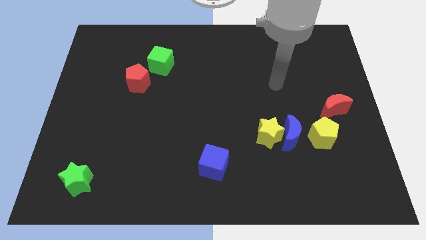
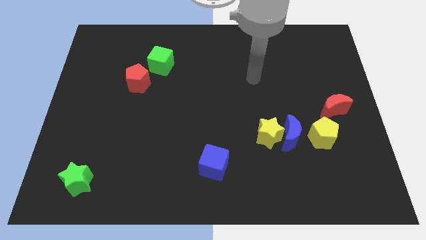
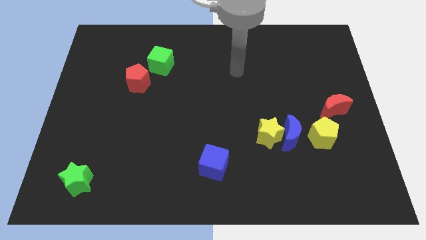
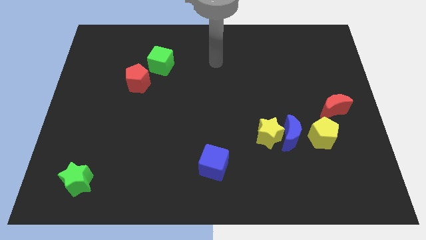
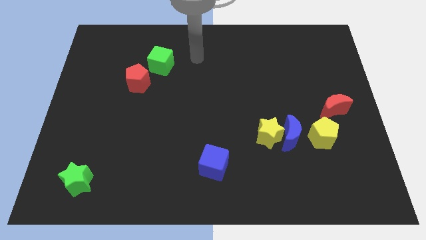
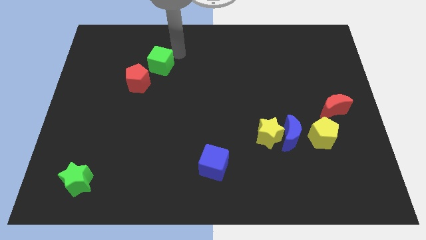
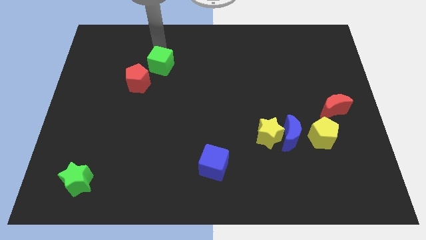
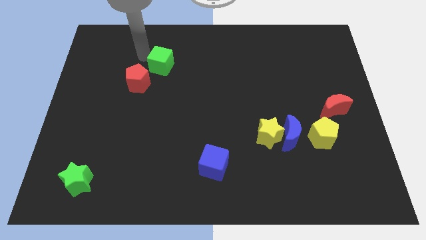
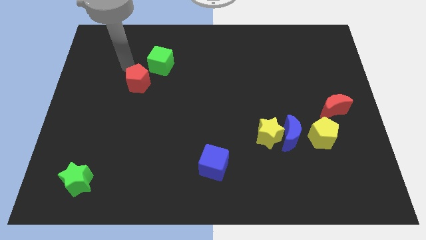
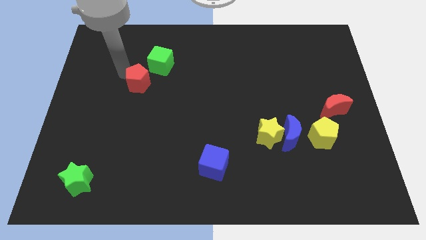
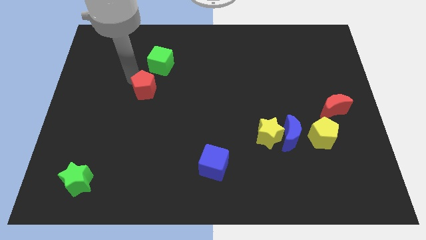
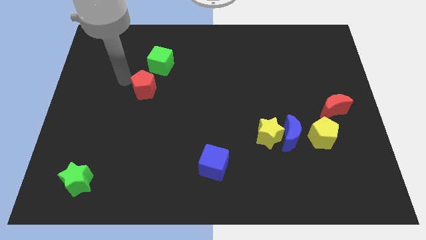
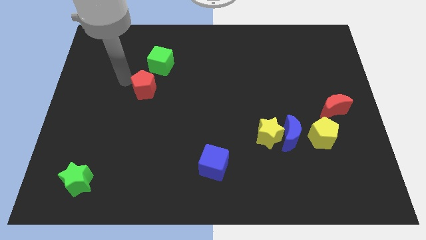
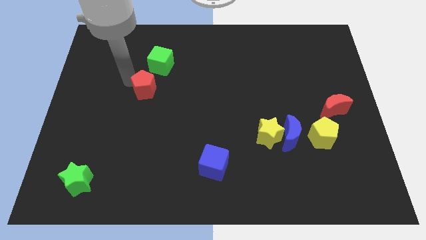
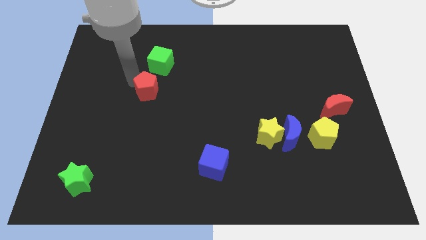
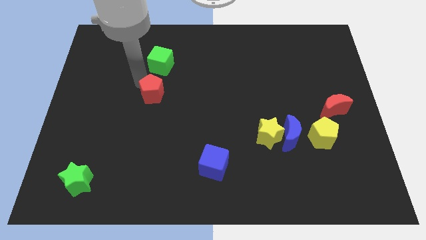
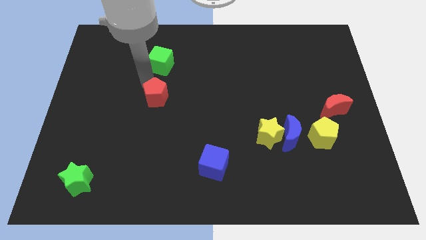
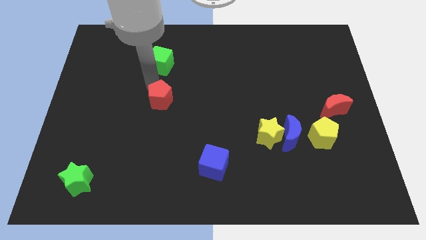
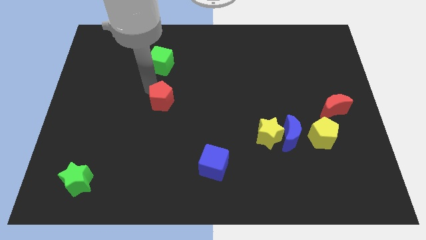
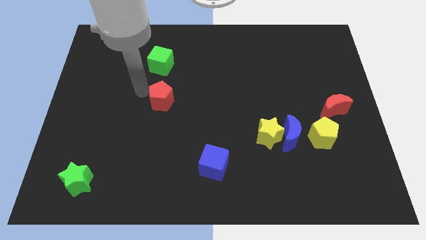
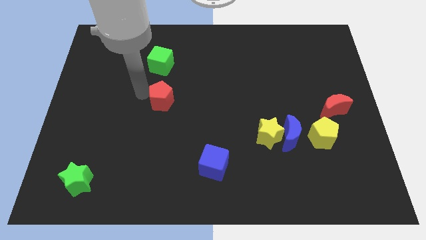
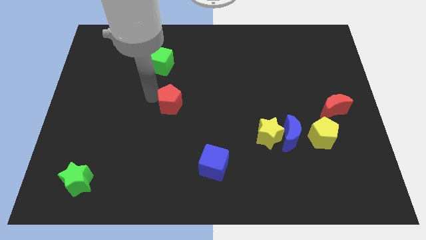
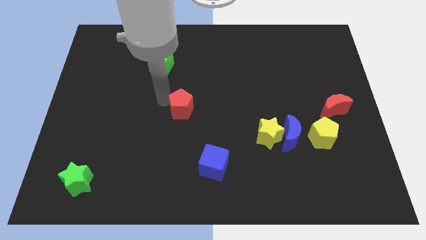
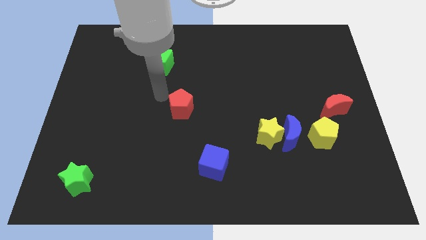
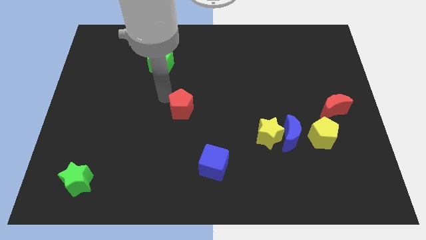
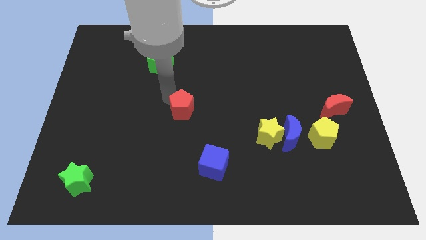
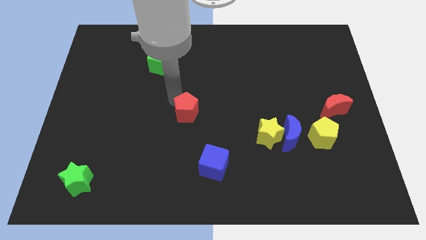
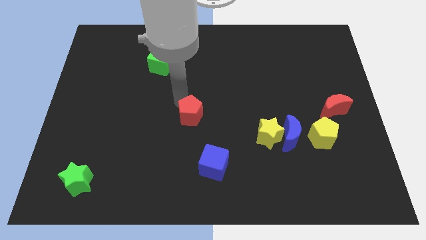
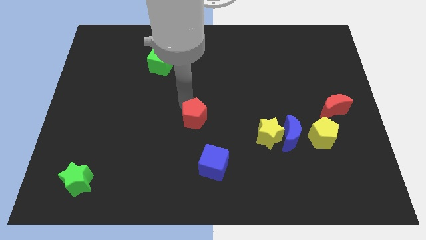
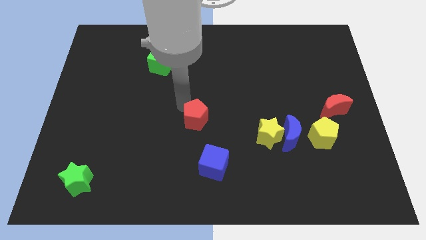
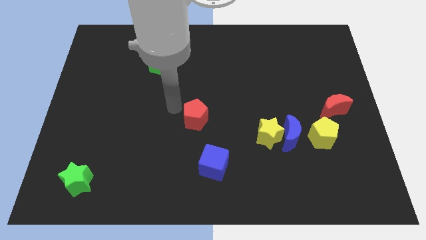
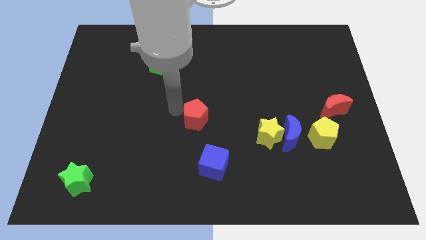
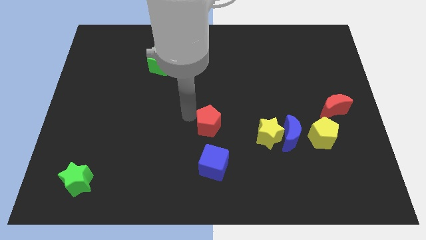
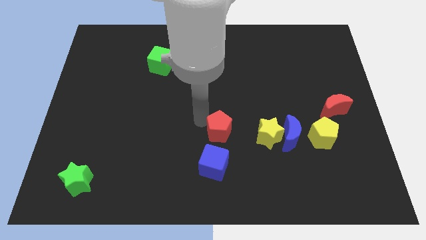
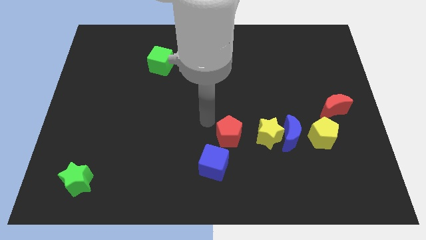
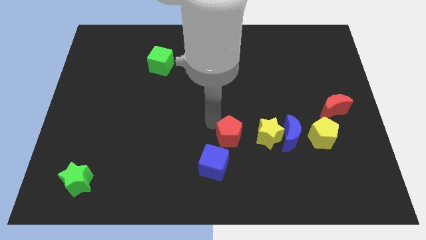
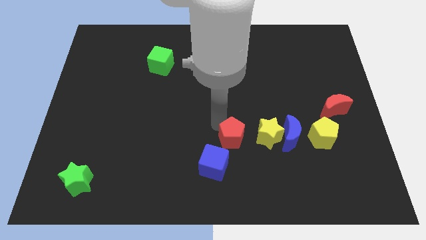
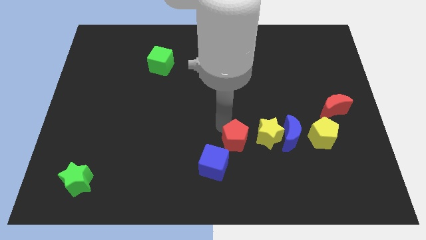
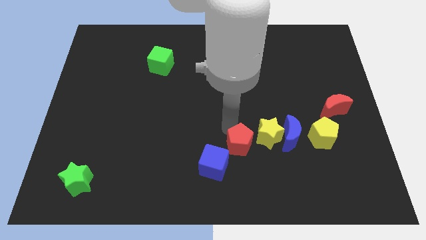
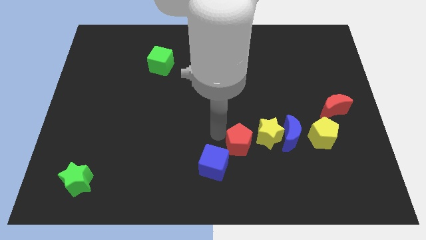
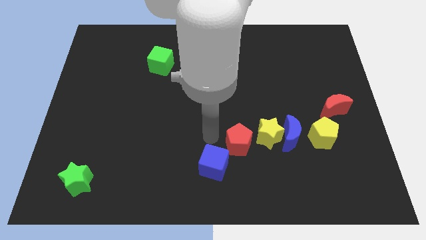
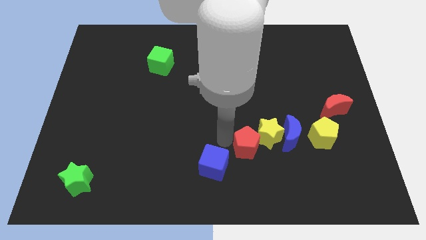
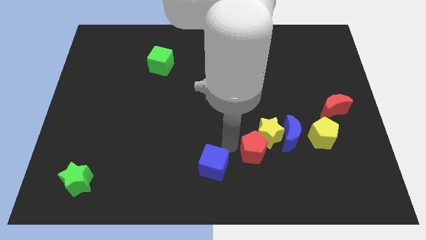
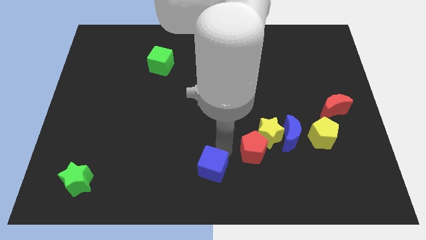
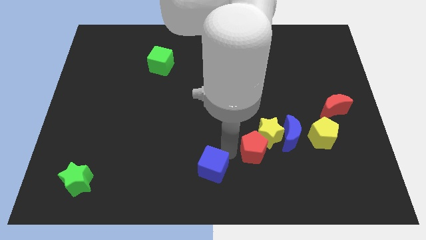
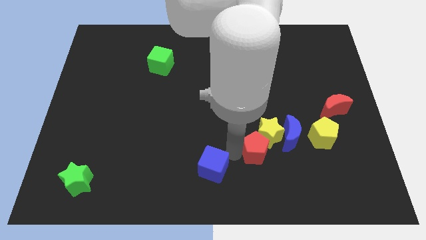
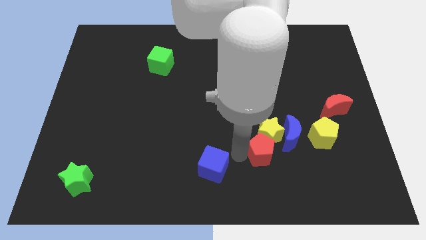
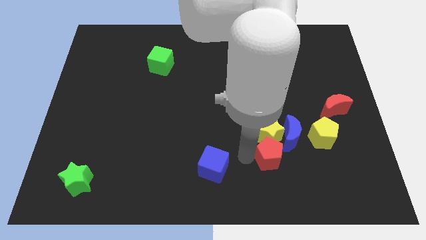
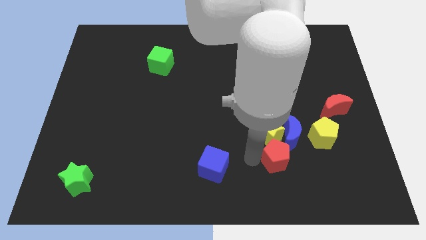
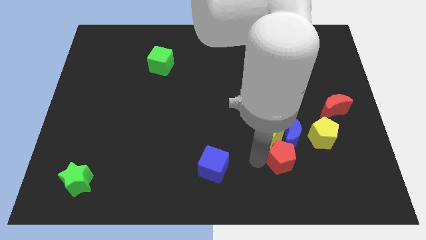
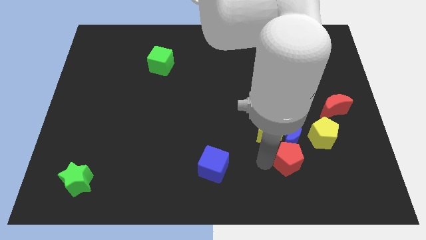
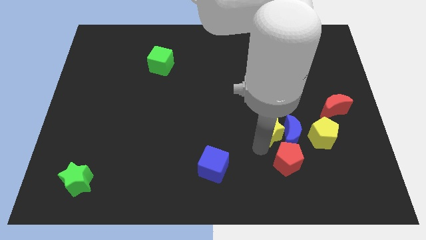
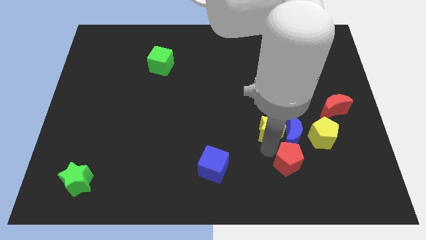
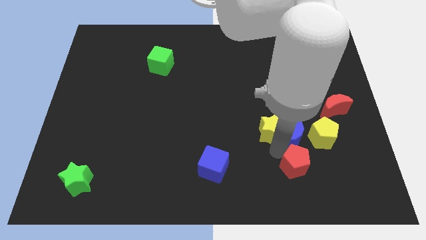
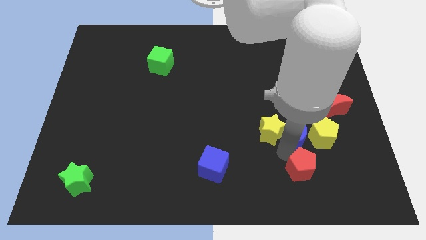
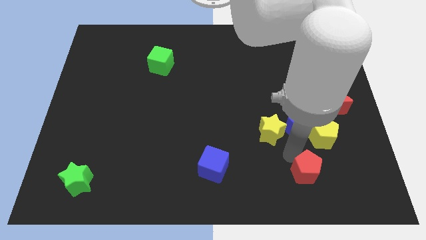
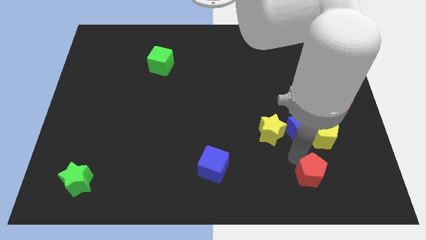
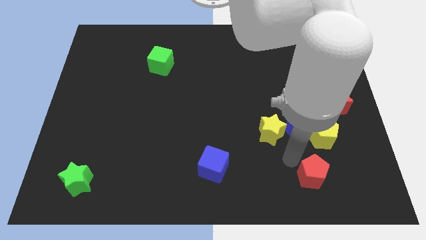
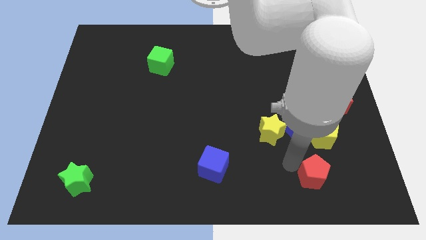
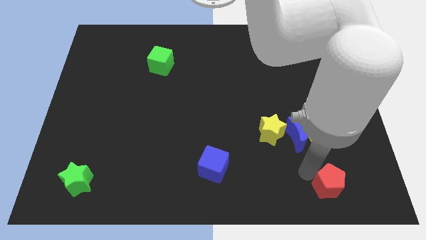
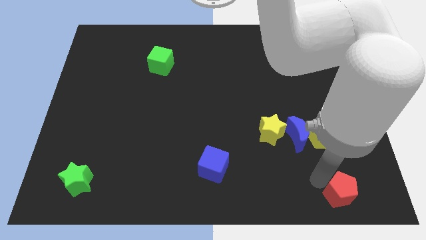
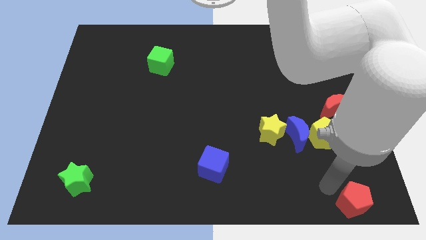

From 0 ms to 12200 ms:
move the red pentagon to the lower right corner
